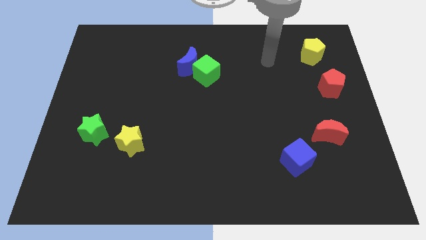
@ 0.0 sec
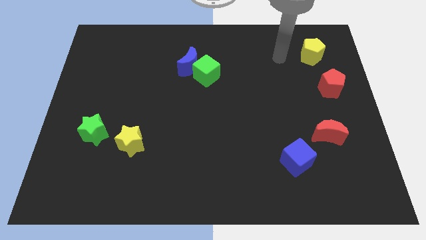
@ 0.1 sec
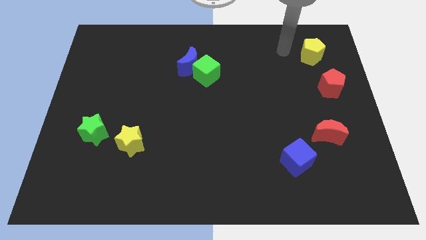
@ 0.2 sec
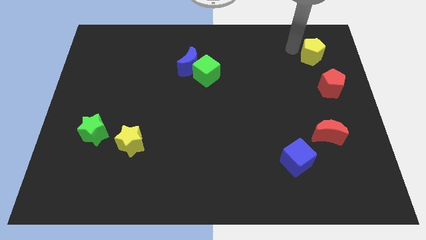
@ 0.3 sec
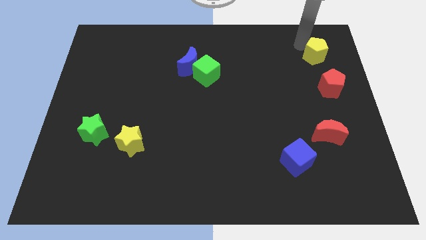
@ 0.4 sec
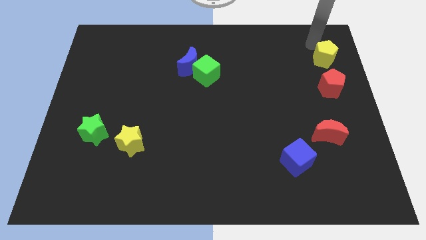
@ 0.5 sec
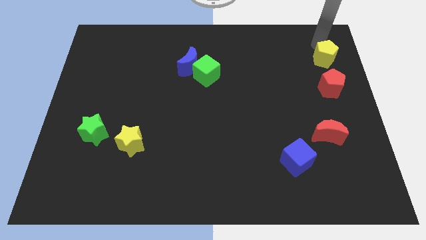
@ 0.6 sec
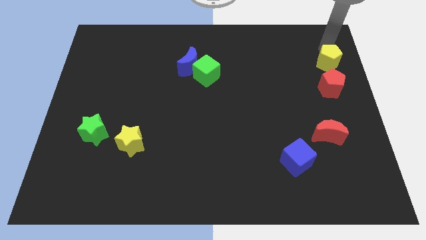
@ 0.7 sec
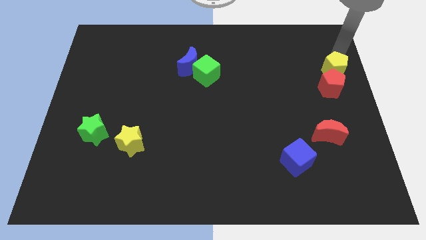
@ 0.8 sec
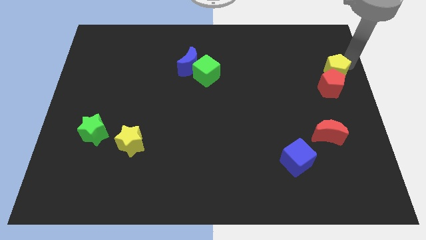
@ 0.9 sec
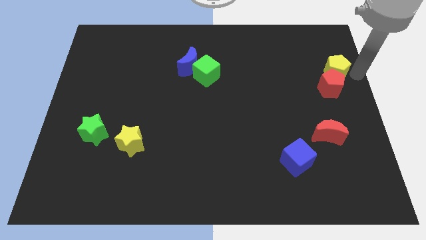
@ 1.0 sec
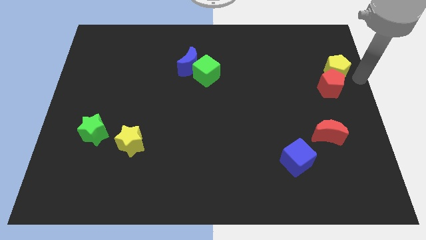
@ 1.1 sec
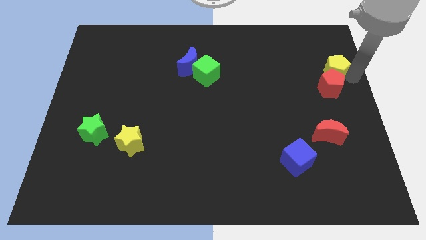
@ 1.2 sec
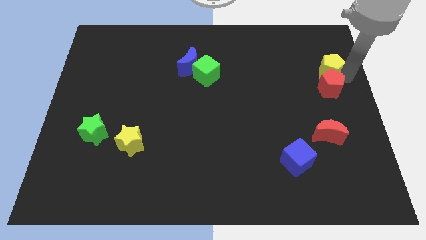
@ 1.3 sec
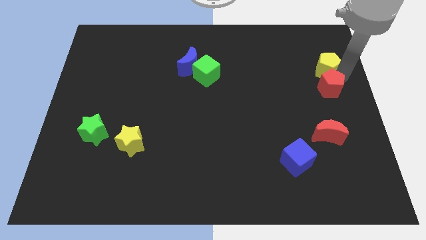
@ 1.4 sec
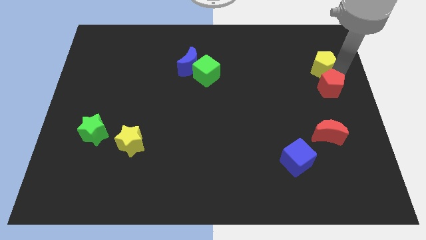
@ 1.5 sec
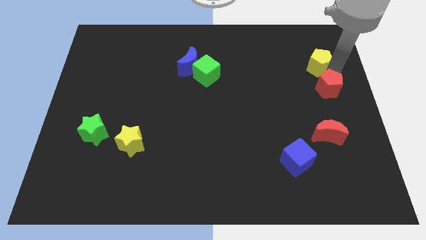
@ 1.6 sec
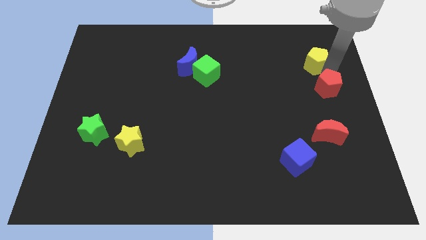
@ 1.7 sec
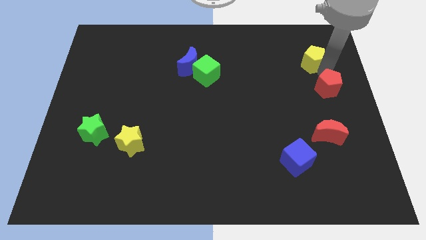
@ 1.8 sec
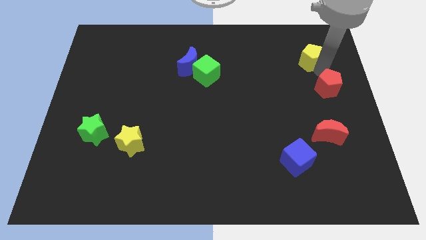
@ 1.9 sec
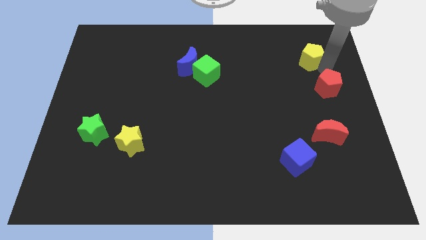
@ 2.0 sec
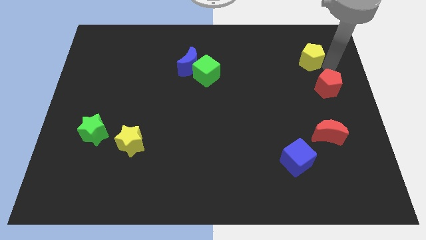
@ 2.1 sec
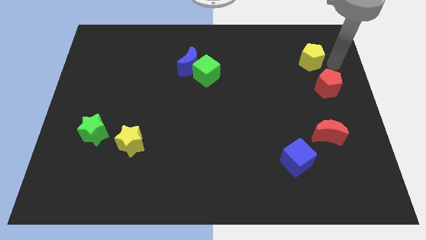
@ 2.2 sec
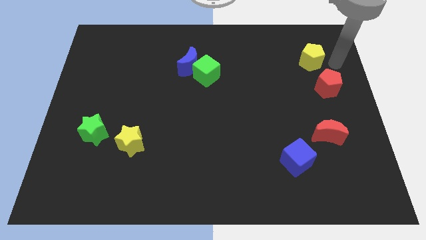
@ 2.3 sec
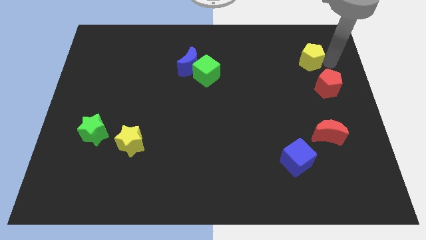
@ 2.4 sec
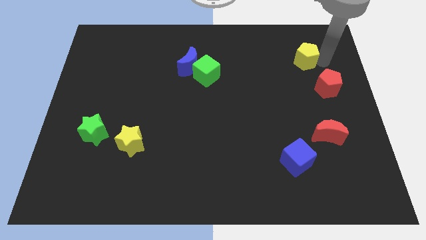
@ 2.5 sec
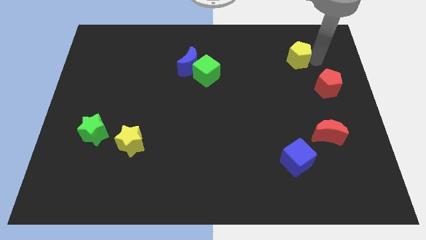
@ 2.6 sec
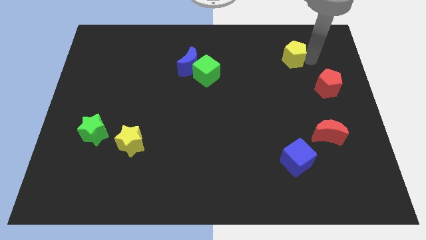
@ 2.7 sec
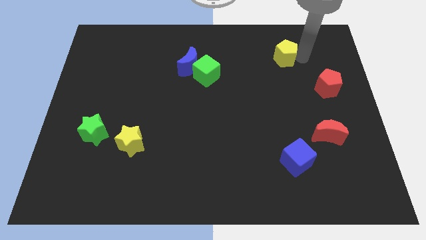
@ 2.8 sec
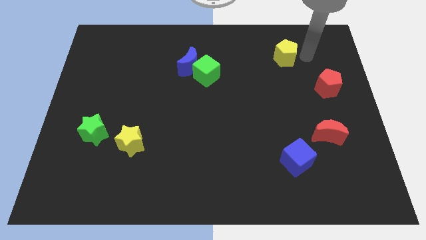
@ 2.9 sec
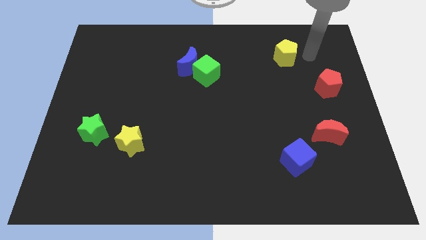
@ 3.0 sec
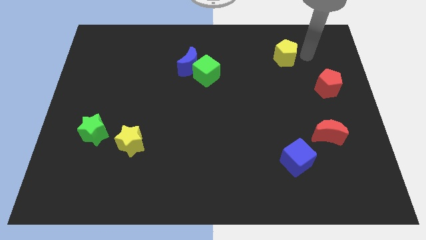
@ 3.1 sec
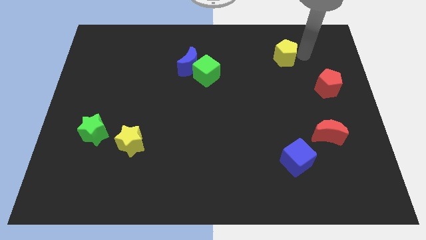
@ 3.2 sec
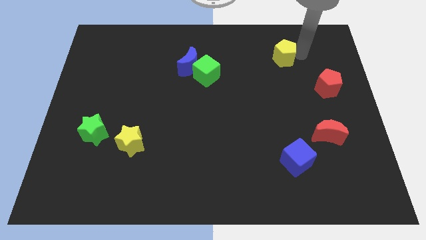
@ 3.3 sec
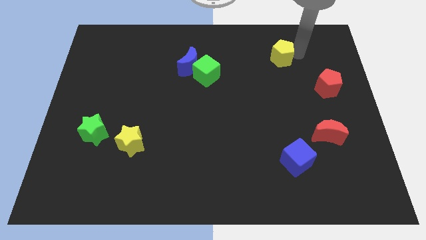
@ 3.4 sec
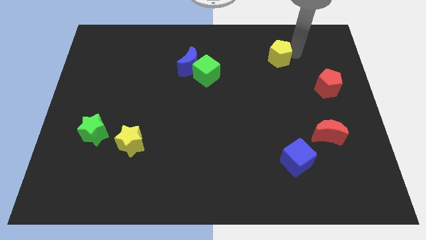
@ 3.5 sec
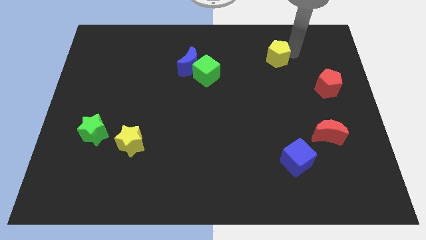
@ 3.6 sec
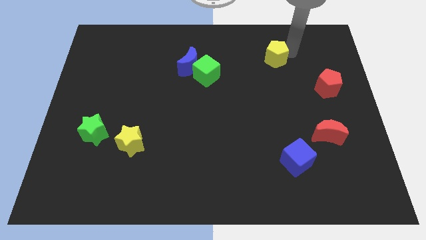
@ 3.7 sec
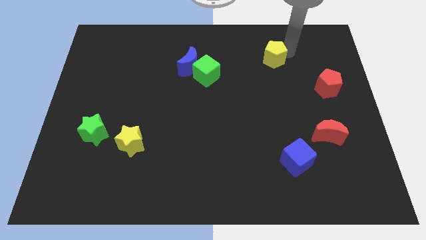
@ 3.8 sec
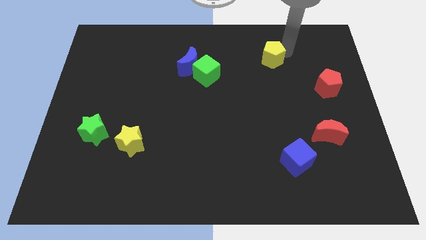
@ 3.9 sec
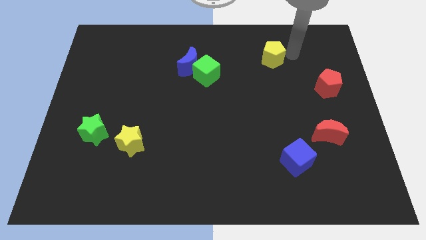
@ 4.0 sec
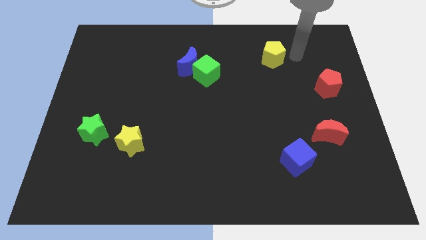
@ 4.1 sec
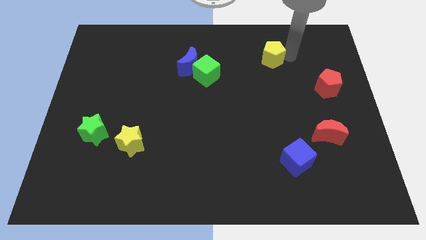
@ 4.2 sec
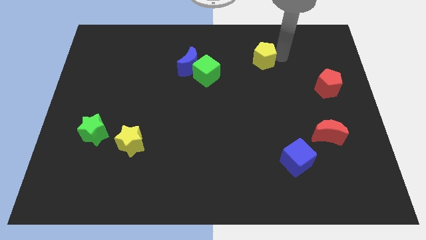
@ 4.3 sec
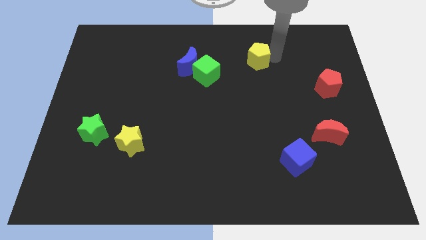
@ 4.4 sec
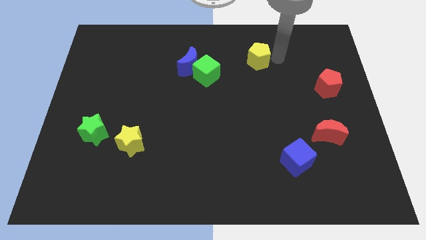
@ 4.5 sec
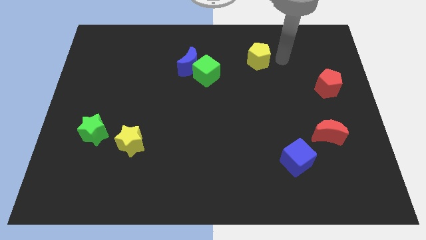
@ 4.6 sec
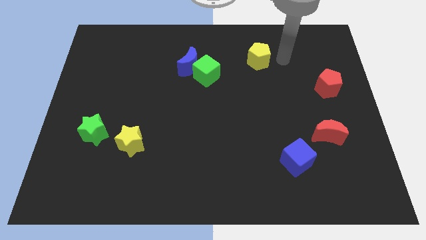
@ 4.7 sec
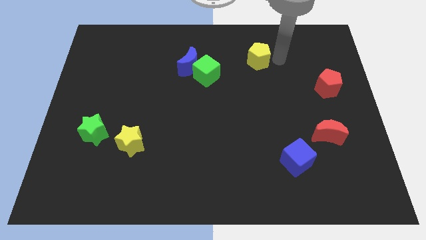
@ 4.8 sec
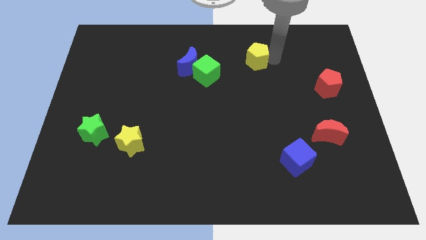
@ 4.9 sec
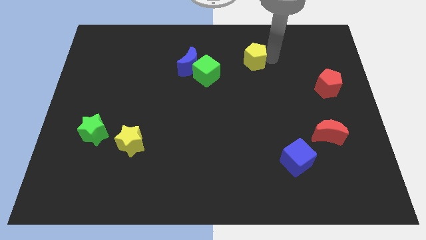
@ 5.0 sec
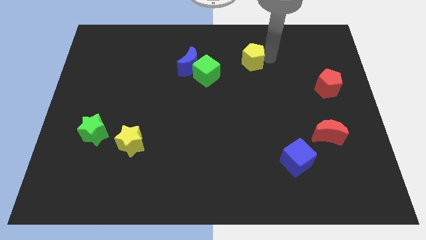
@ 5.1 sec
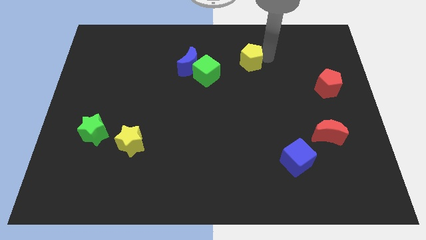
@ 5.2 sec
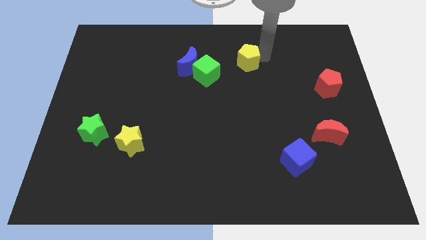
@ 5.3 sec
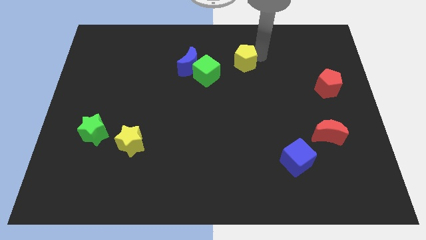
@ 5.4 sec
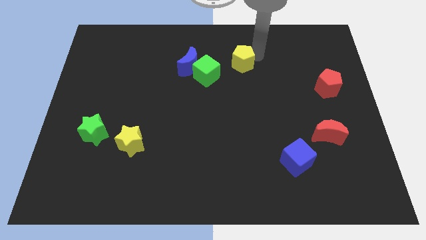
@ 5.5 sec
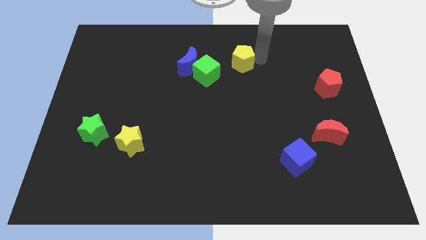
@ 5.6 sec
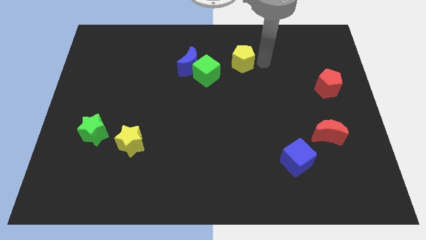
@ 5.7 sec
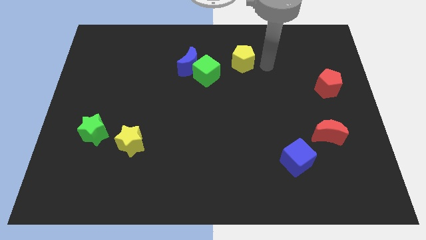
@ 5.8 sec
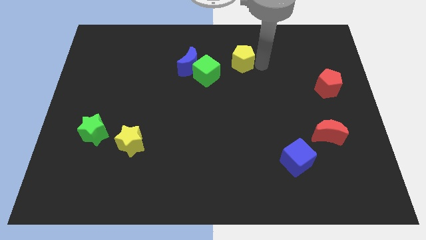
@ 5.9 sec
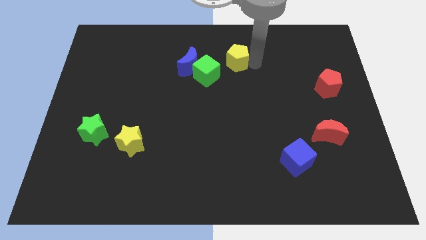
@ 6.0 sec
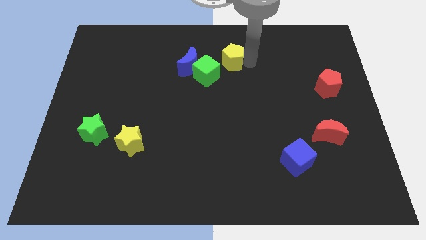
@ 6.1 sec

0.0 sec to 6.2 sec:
slide the yellow pentagon to the left

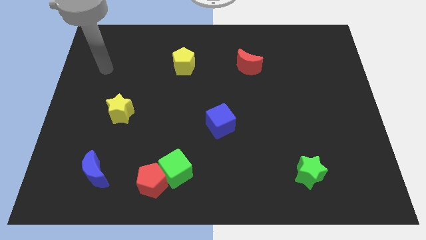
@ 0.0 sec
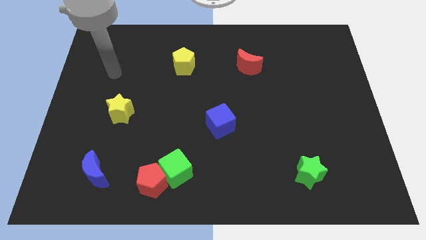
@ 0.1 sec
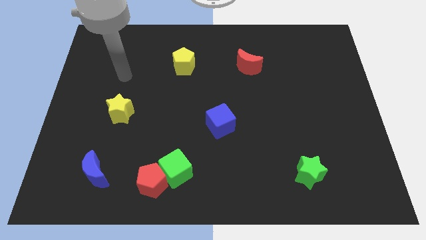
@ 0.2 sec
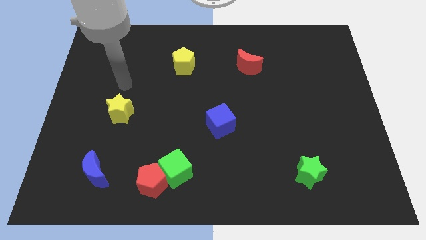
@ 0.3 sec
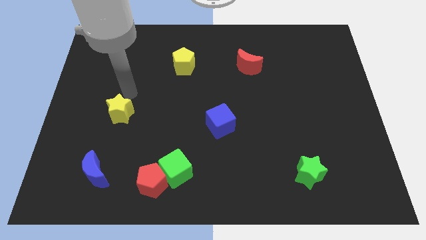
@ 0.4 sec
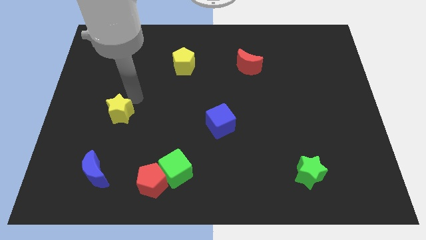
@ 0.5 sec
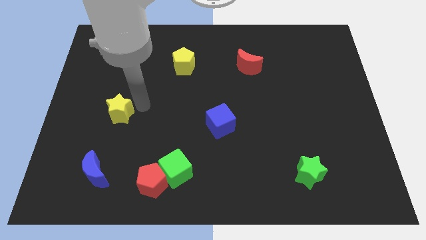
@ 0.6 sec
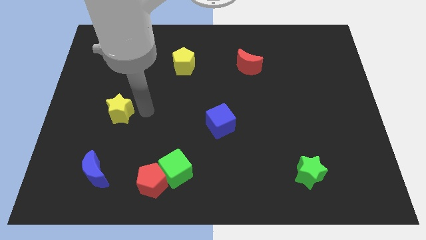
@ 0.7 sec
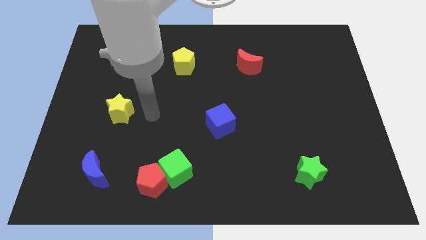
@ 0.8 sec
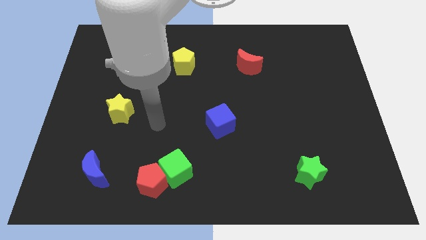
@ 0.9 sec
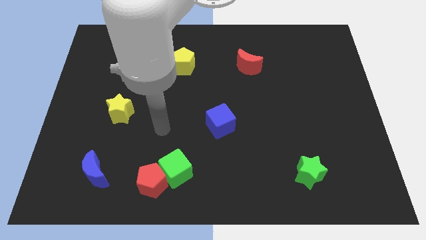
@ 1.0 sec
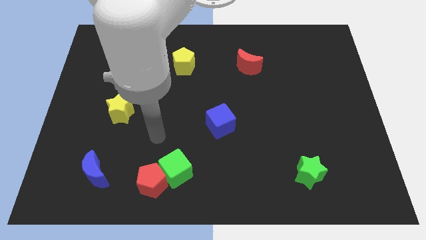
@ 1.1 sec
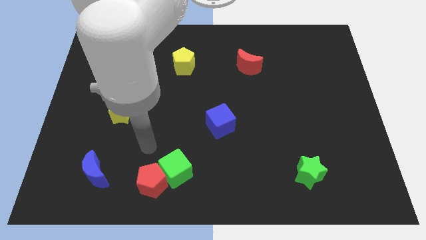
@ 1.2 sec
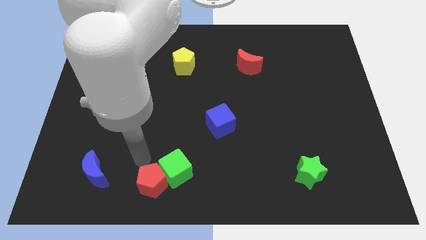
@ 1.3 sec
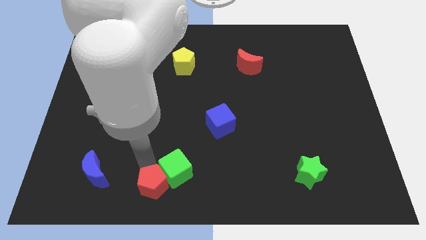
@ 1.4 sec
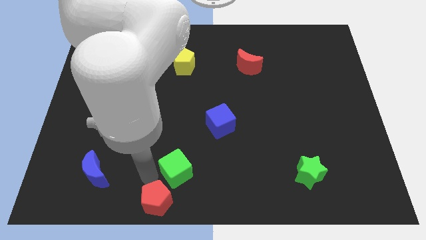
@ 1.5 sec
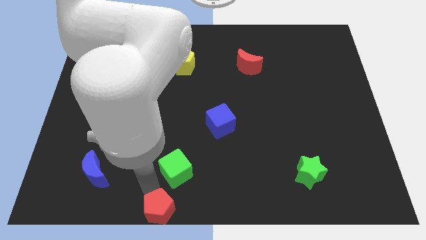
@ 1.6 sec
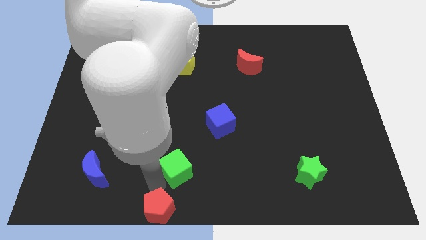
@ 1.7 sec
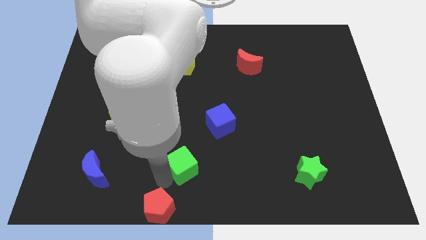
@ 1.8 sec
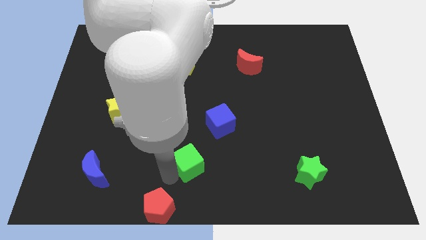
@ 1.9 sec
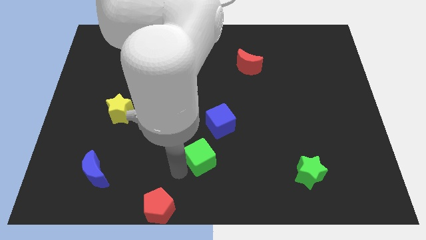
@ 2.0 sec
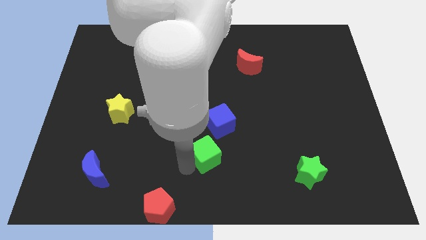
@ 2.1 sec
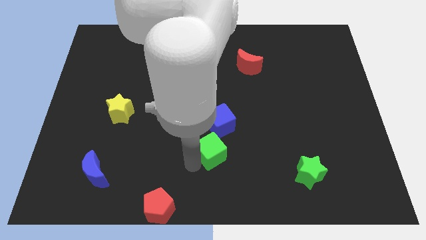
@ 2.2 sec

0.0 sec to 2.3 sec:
move the green cube slightly up and to the right diagonally
